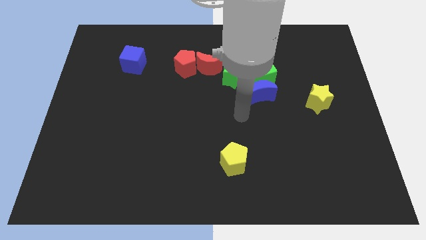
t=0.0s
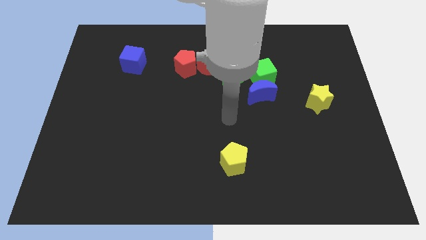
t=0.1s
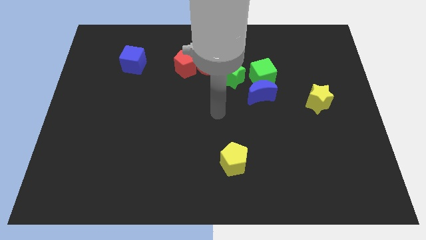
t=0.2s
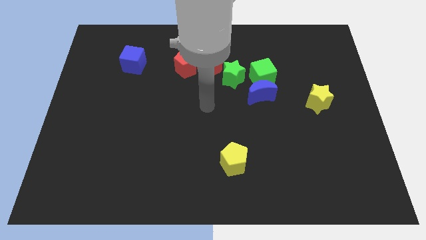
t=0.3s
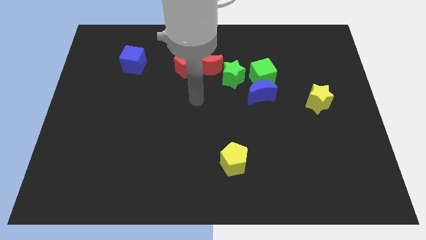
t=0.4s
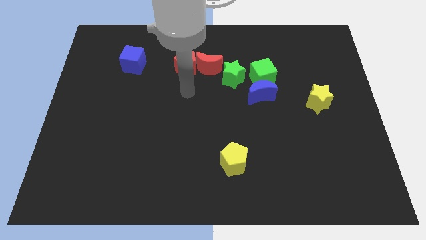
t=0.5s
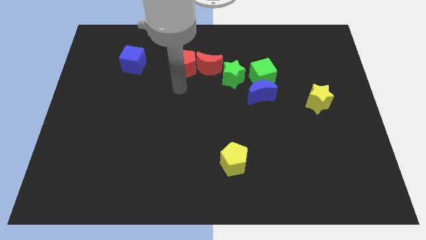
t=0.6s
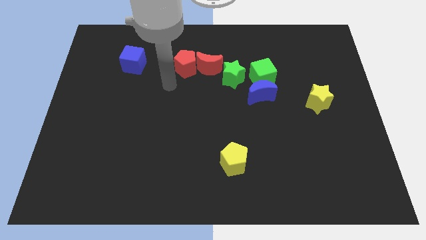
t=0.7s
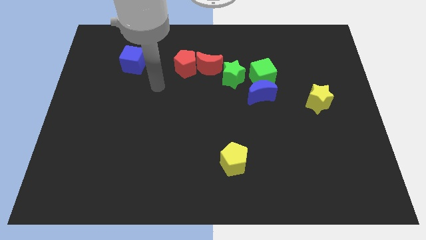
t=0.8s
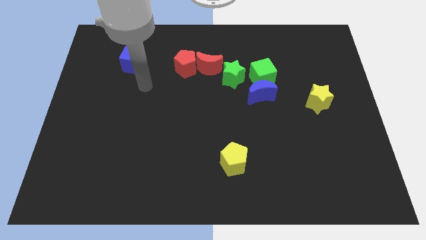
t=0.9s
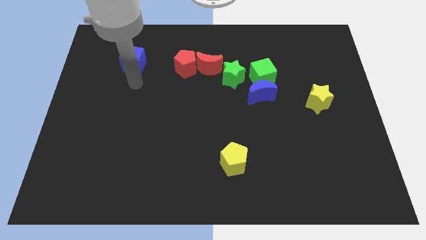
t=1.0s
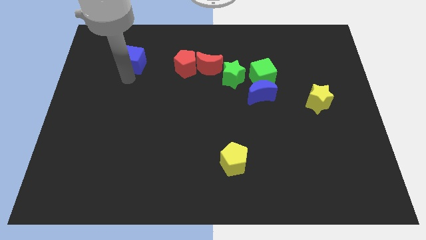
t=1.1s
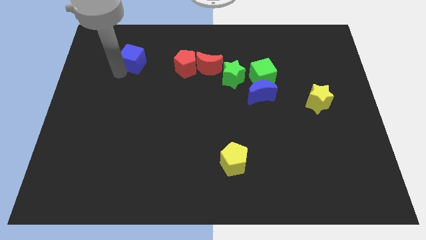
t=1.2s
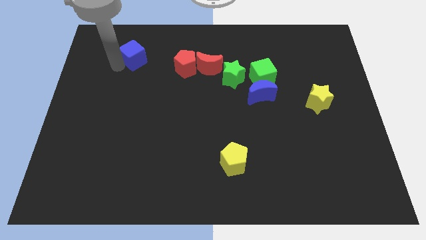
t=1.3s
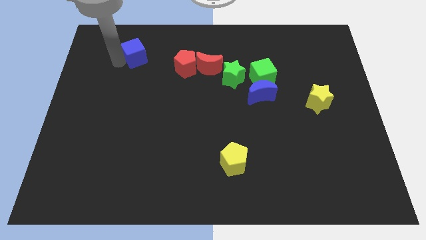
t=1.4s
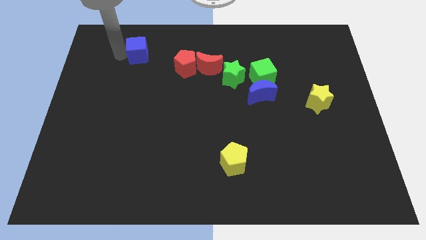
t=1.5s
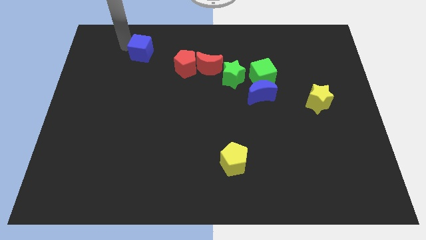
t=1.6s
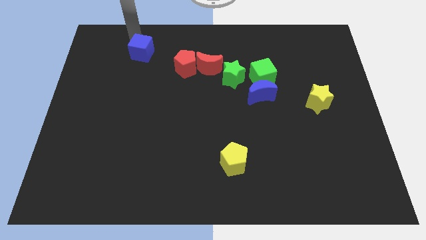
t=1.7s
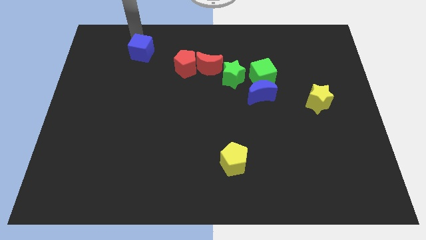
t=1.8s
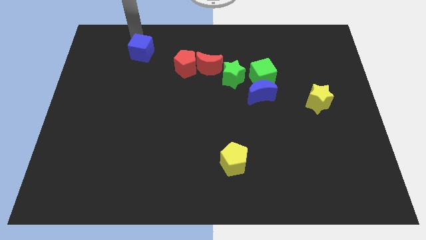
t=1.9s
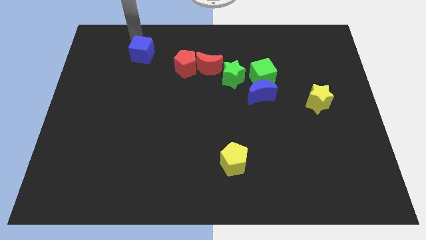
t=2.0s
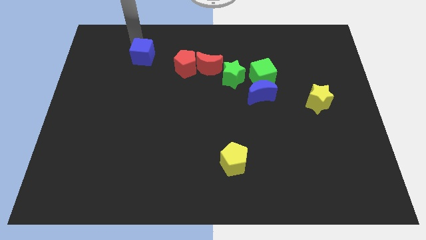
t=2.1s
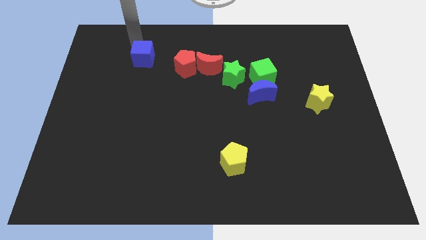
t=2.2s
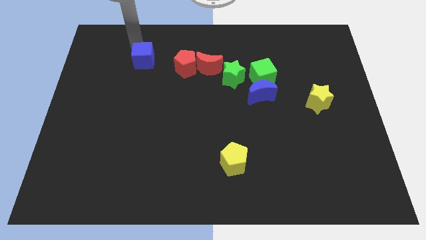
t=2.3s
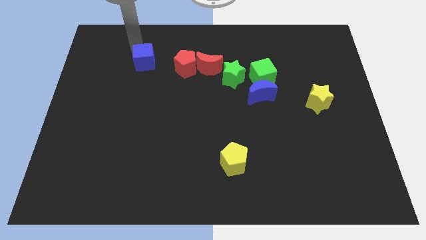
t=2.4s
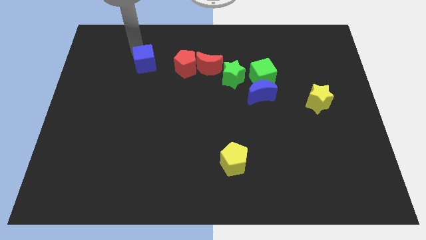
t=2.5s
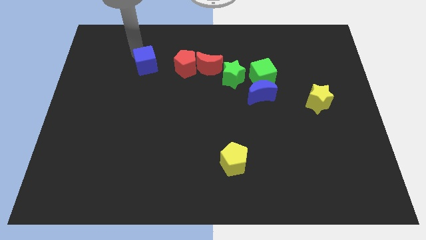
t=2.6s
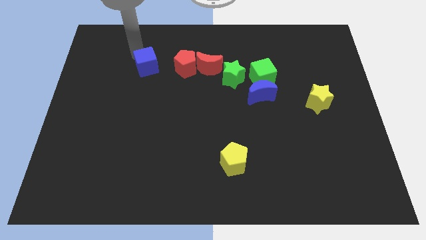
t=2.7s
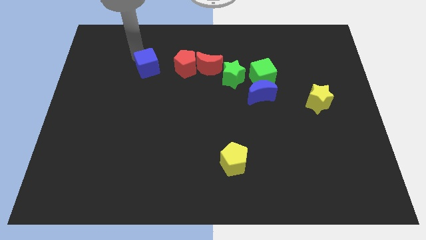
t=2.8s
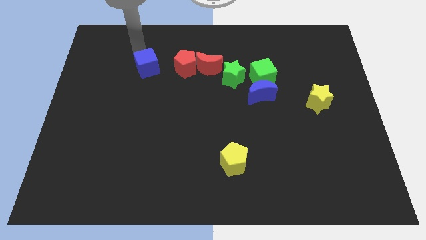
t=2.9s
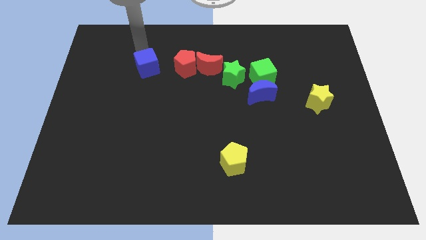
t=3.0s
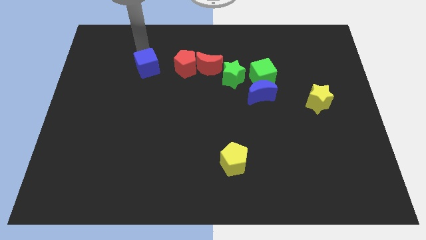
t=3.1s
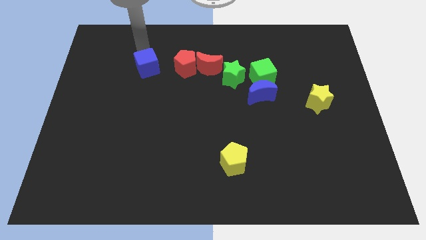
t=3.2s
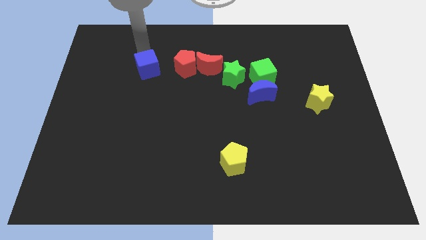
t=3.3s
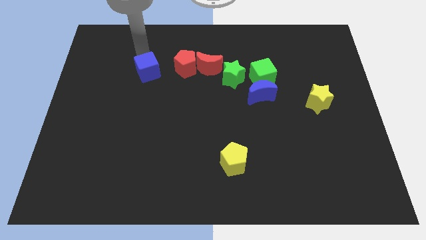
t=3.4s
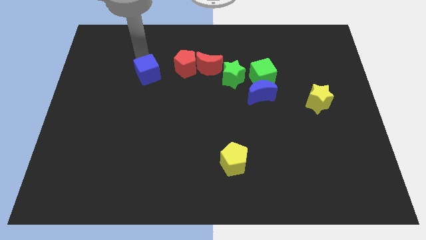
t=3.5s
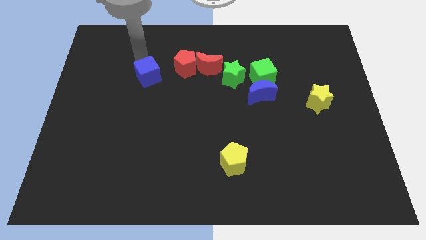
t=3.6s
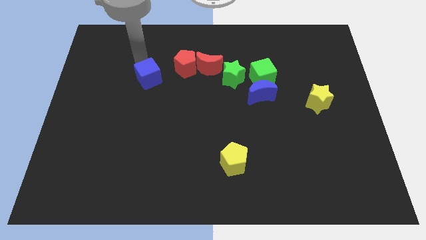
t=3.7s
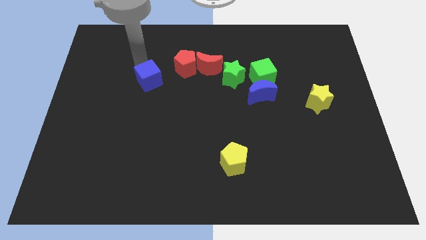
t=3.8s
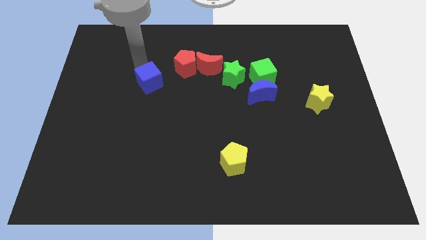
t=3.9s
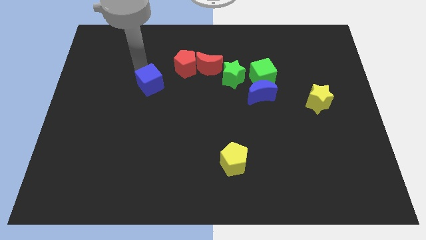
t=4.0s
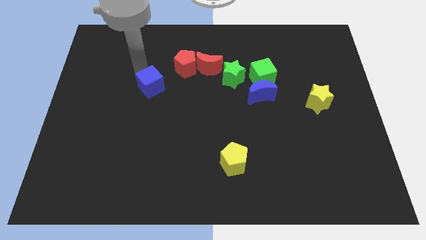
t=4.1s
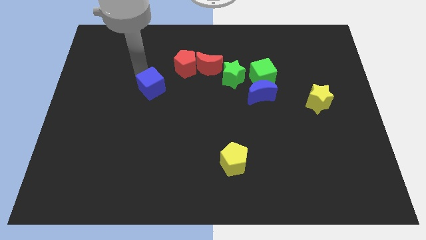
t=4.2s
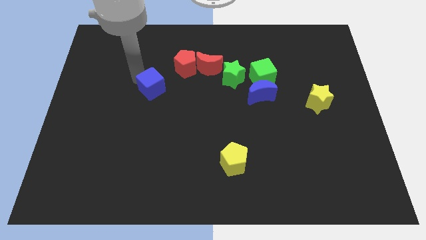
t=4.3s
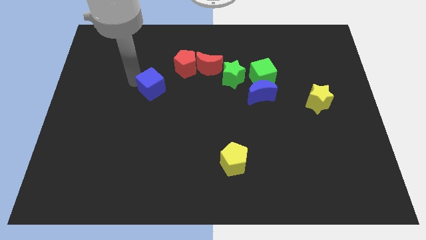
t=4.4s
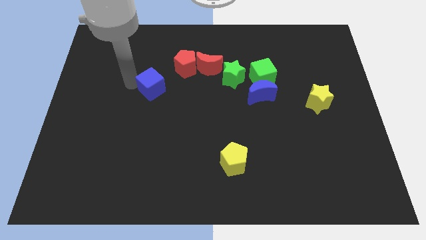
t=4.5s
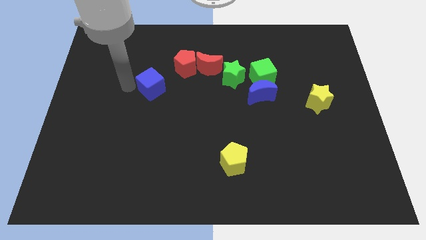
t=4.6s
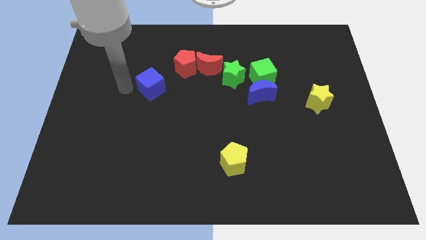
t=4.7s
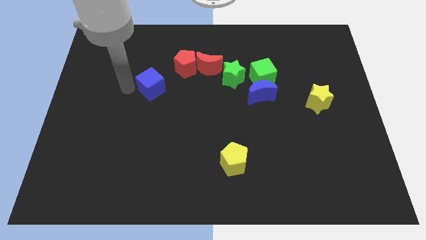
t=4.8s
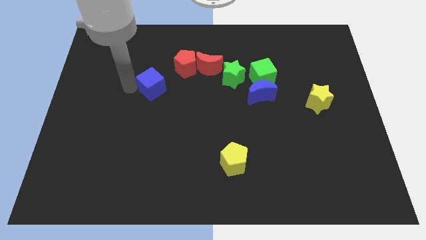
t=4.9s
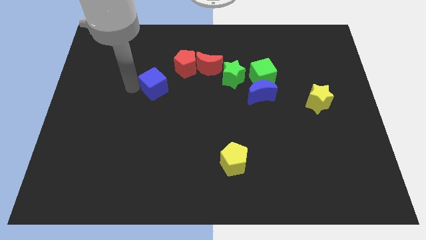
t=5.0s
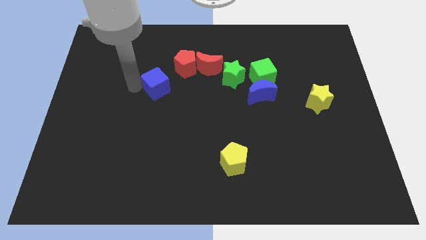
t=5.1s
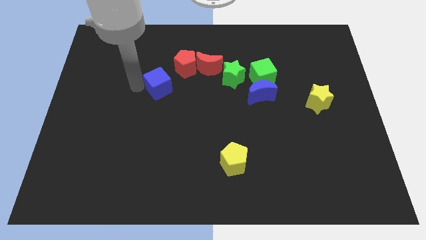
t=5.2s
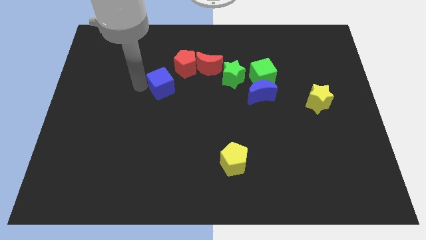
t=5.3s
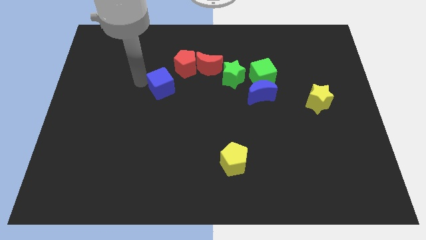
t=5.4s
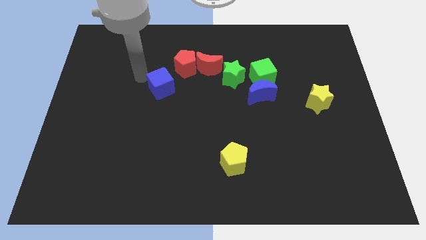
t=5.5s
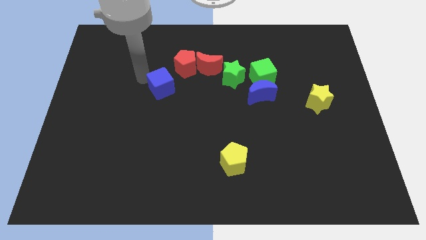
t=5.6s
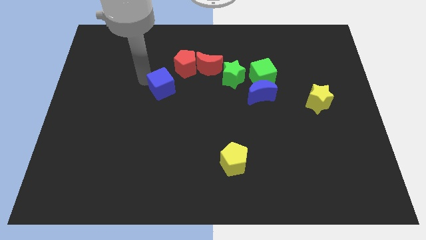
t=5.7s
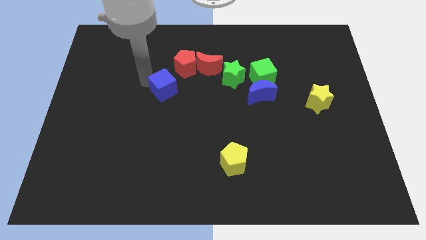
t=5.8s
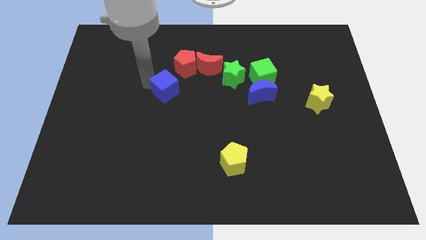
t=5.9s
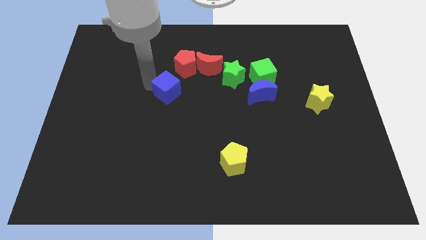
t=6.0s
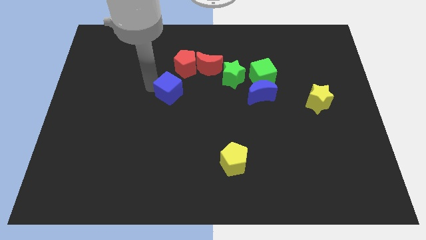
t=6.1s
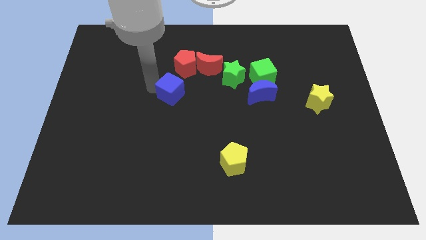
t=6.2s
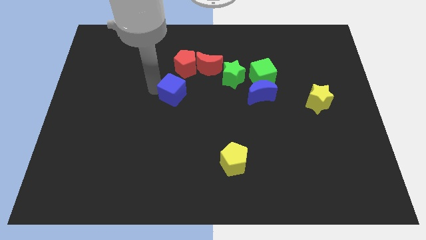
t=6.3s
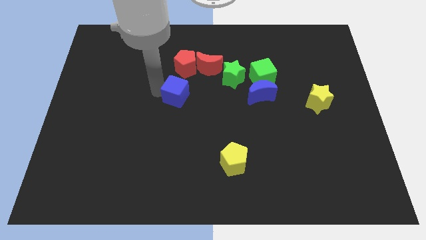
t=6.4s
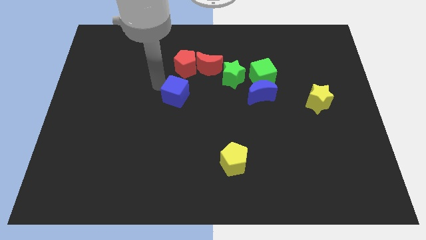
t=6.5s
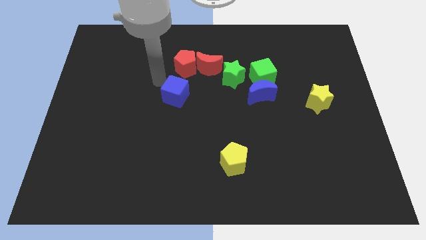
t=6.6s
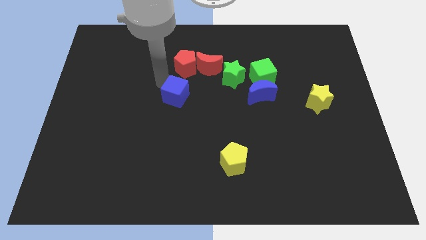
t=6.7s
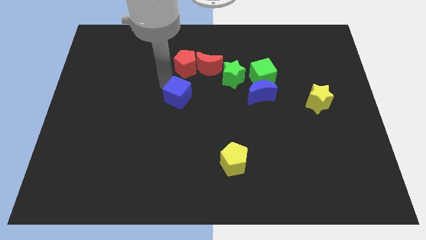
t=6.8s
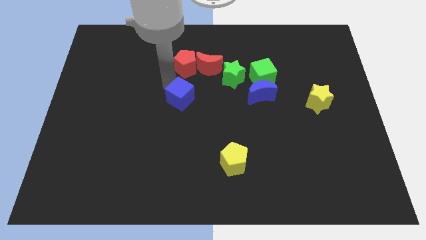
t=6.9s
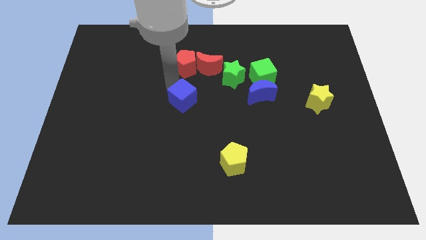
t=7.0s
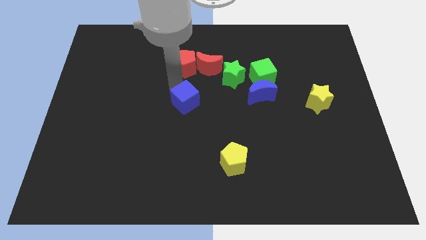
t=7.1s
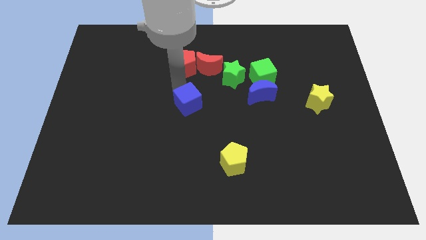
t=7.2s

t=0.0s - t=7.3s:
push the blue cube diagonally downwards and to the right

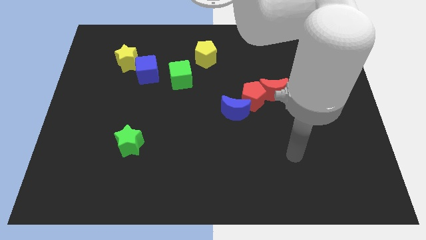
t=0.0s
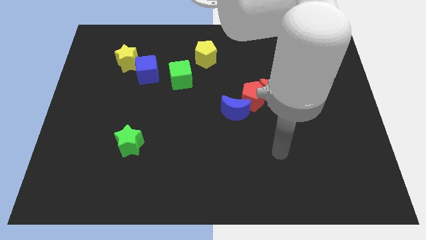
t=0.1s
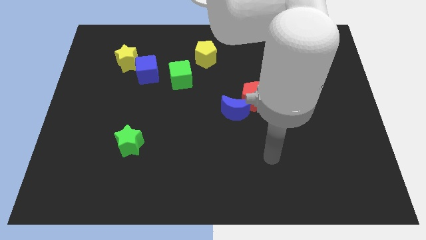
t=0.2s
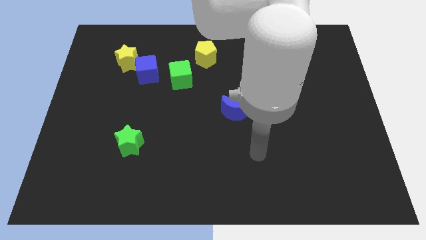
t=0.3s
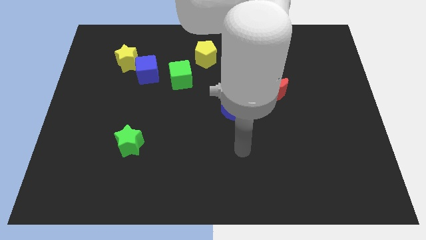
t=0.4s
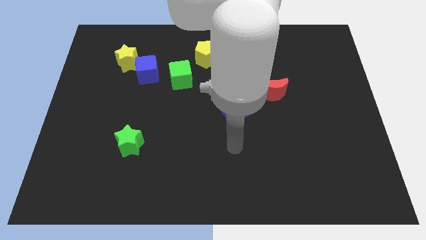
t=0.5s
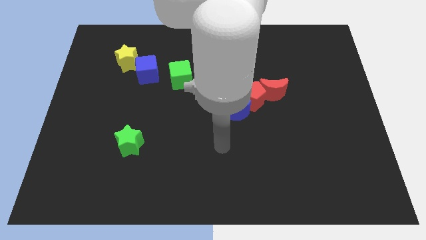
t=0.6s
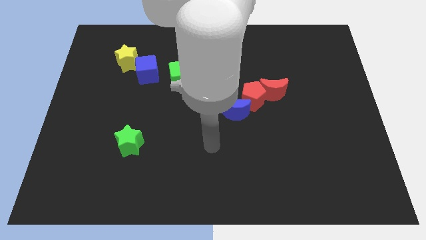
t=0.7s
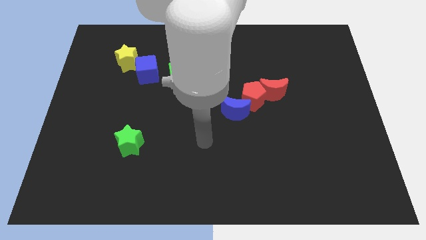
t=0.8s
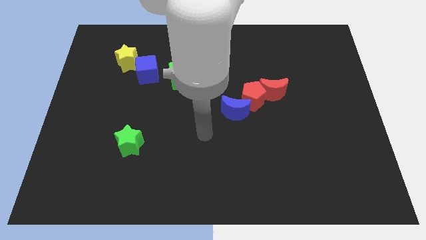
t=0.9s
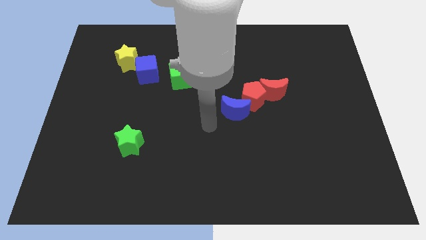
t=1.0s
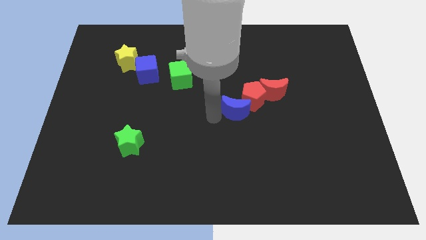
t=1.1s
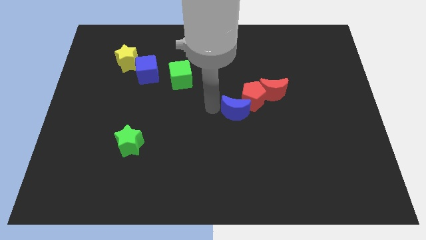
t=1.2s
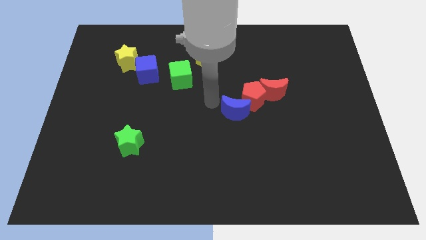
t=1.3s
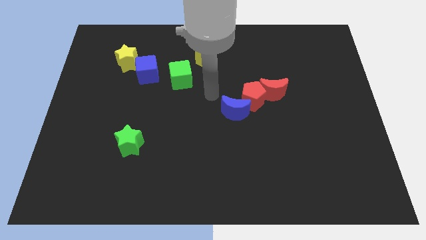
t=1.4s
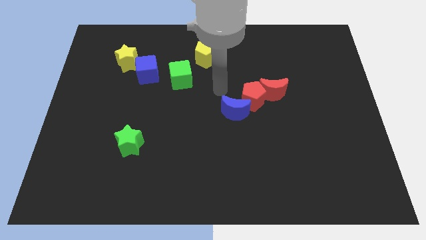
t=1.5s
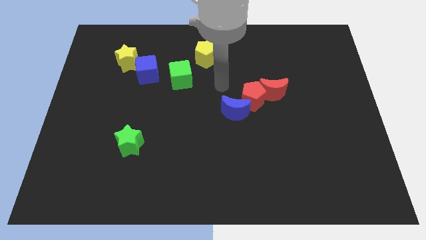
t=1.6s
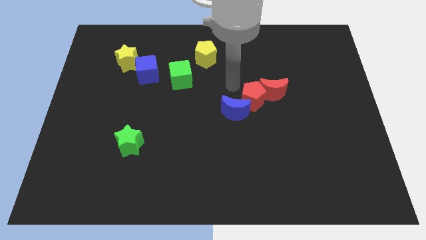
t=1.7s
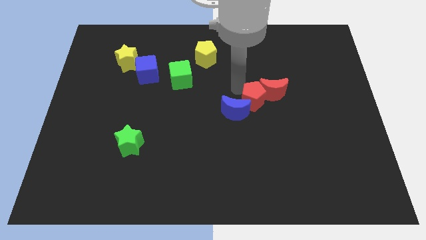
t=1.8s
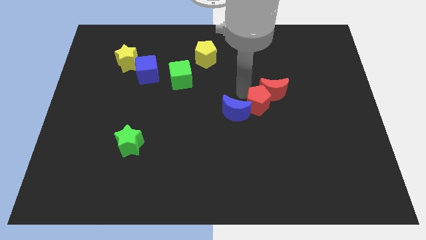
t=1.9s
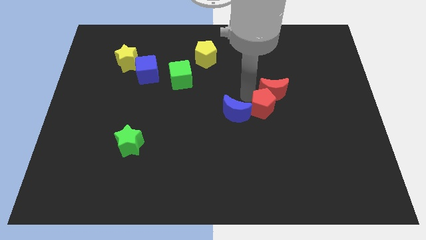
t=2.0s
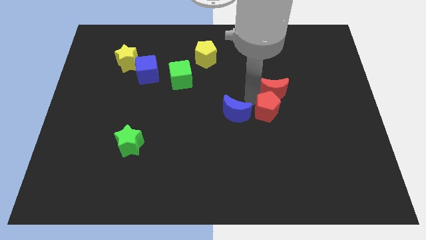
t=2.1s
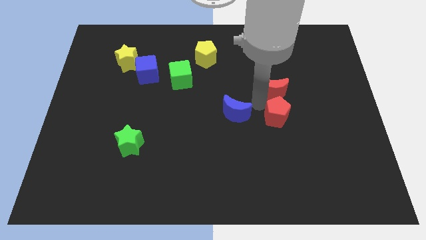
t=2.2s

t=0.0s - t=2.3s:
push the red pentagon diagonally downwards and to the right a bit
